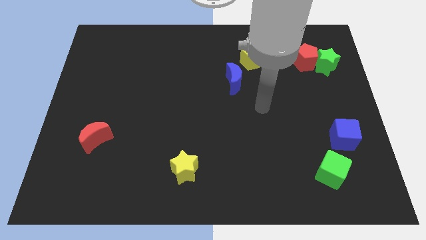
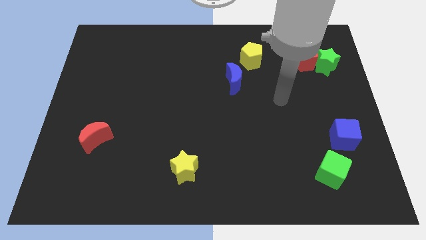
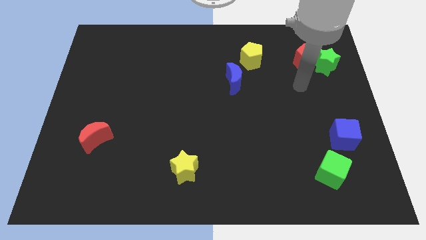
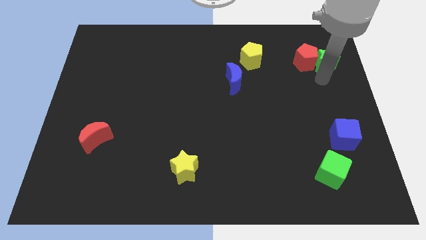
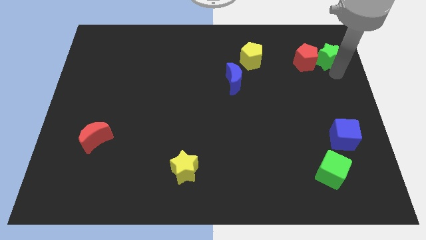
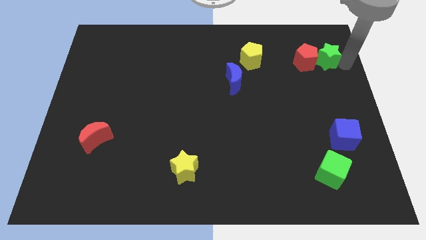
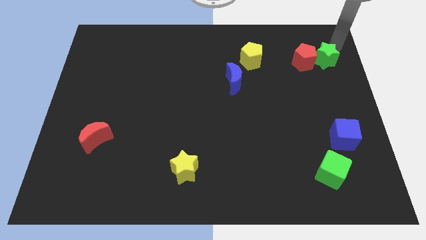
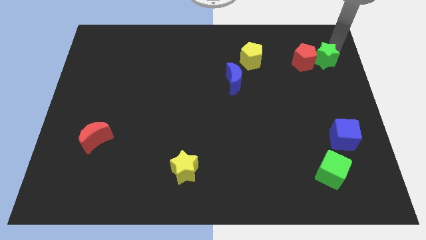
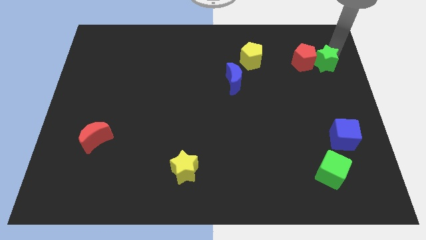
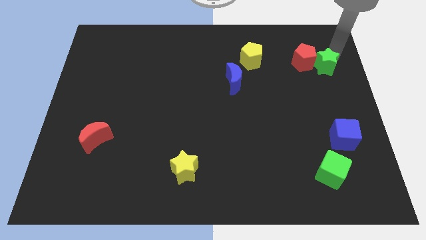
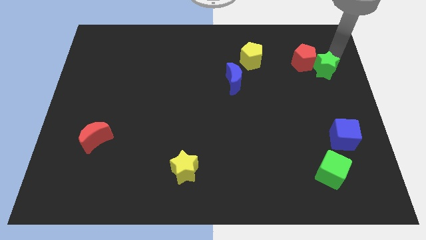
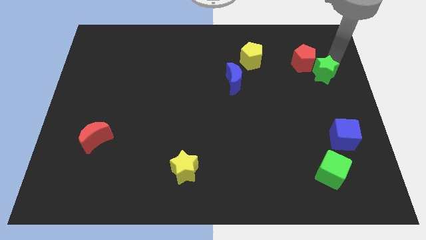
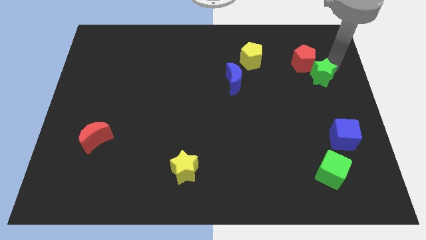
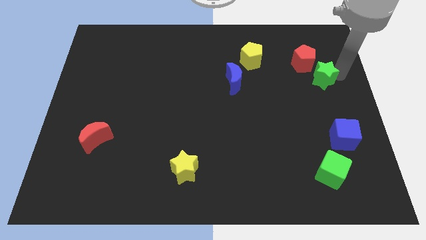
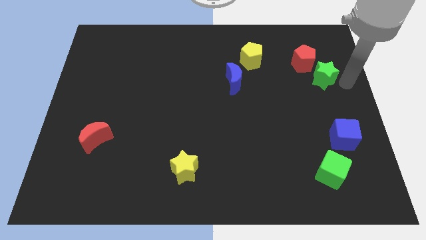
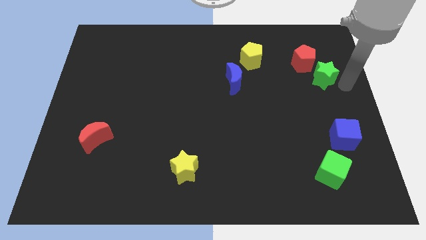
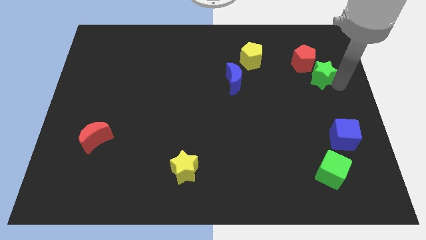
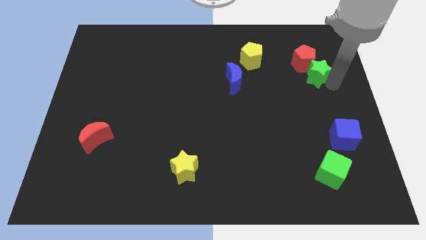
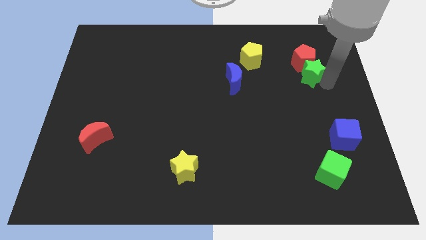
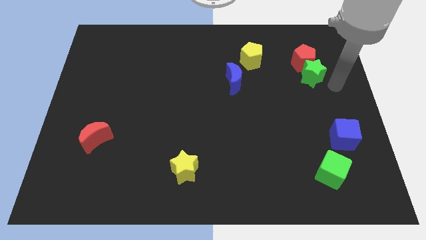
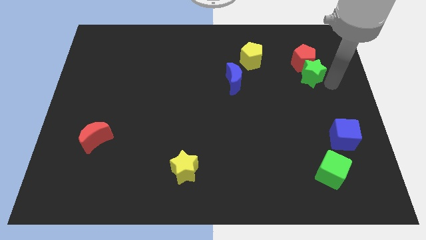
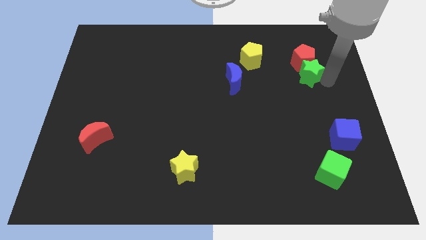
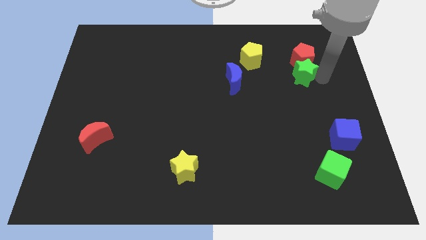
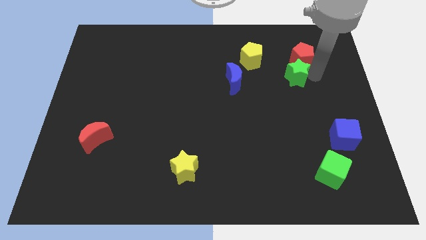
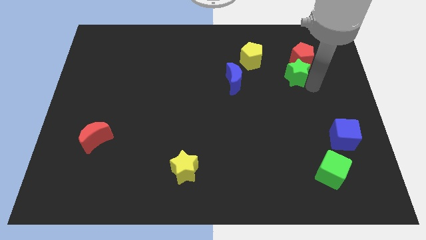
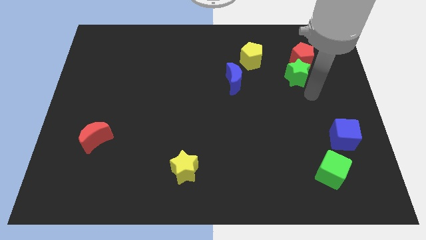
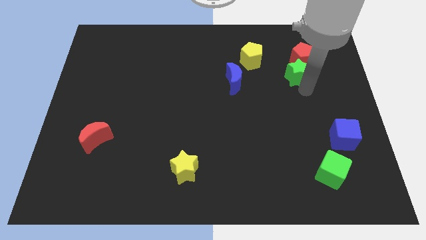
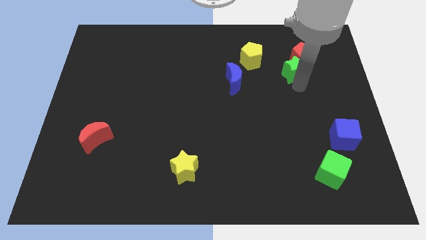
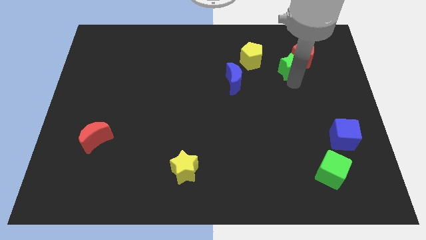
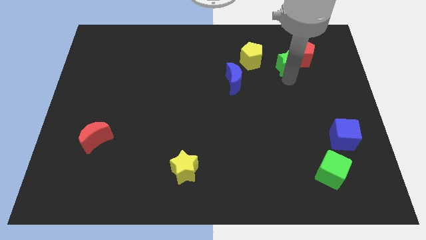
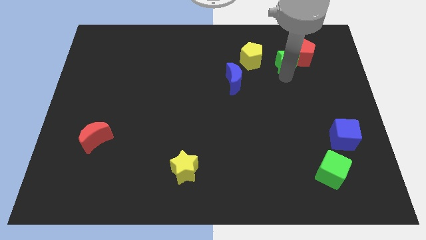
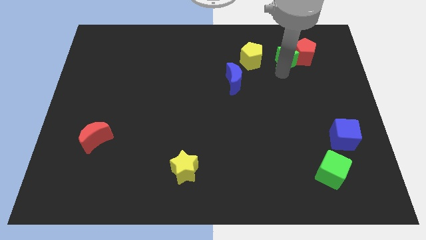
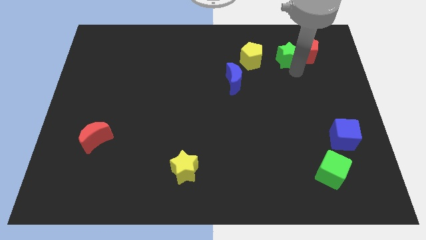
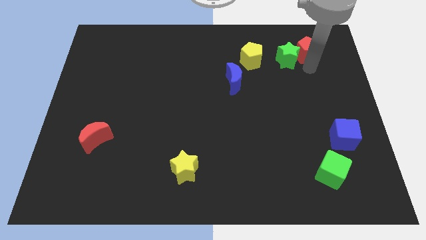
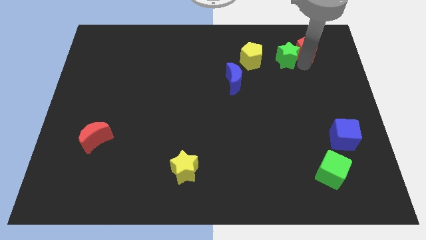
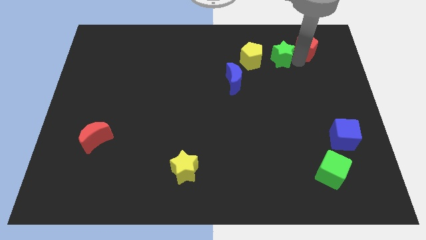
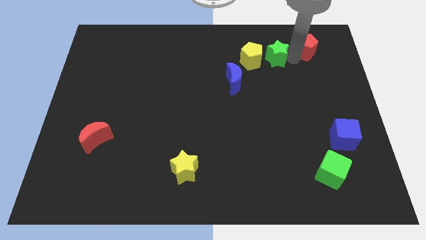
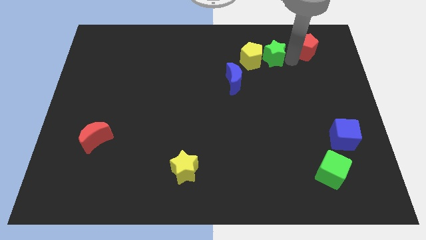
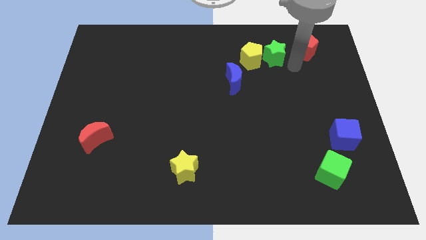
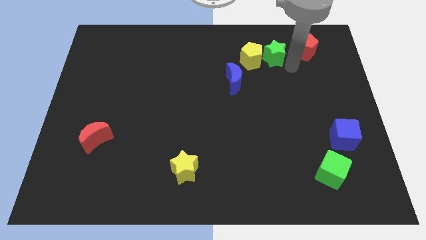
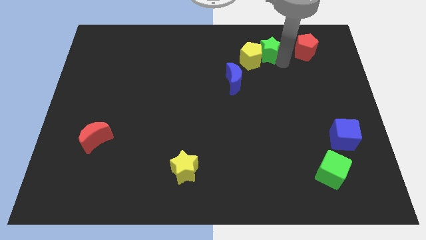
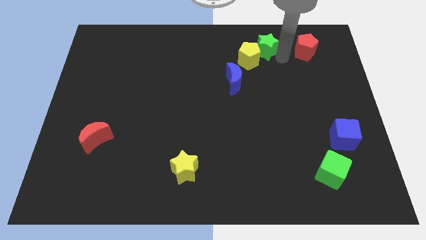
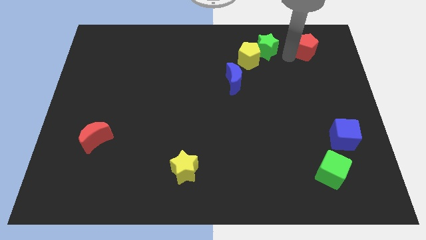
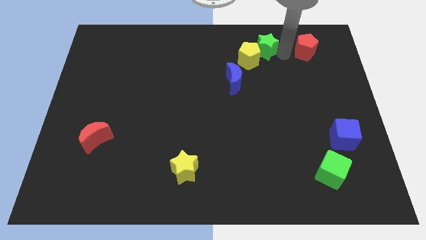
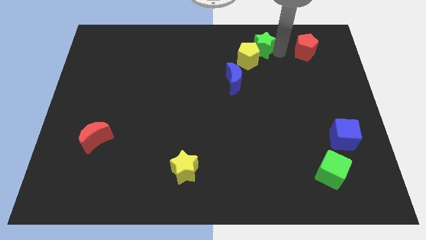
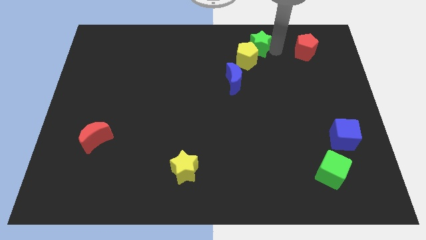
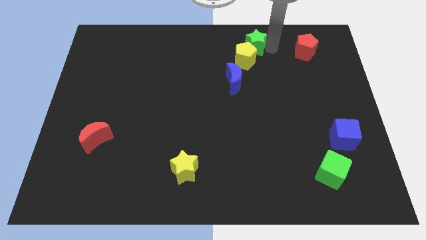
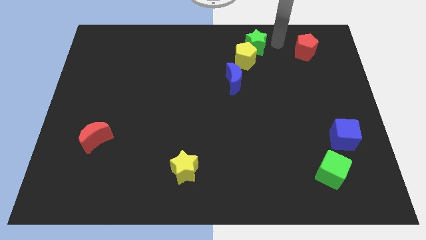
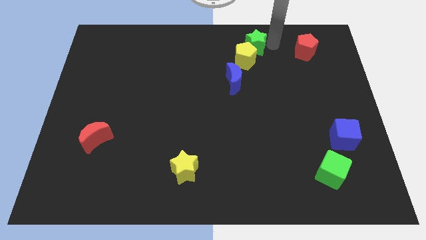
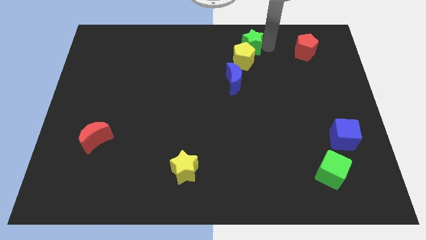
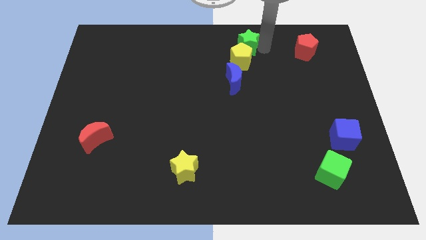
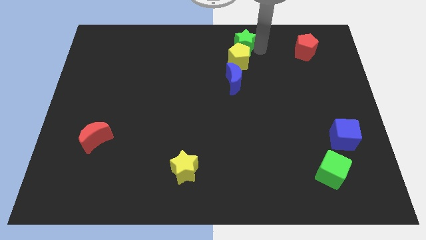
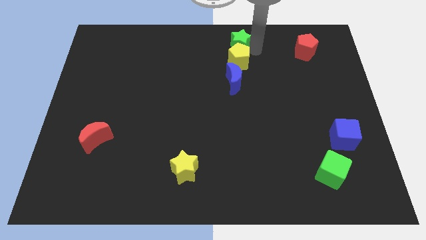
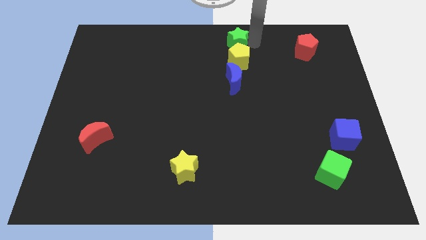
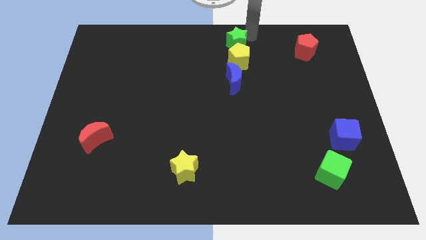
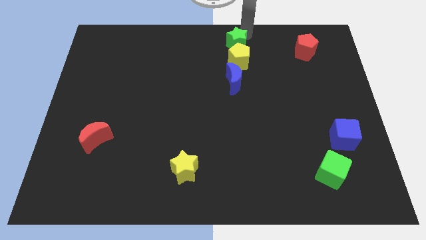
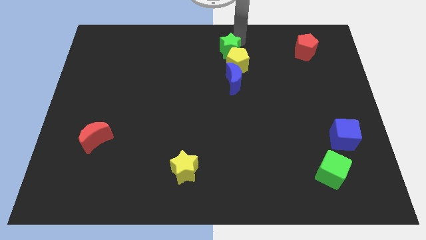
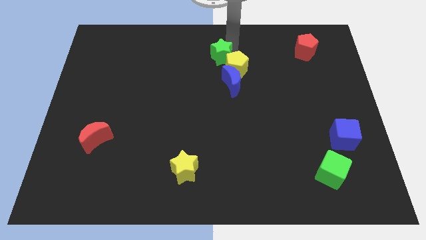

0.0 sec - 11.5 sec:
push the green star diagonally up and to the left of the blue moon

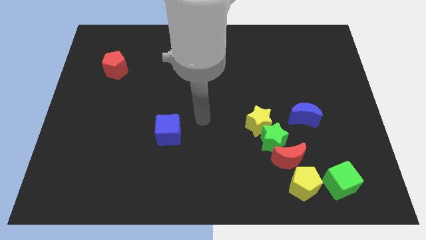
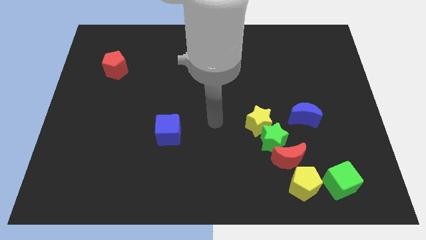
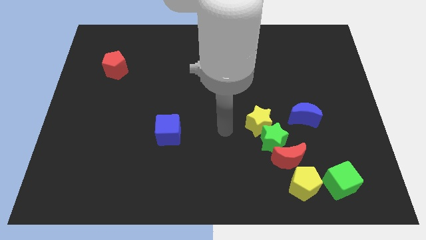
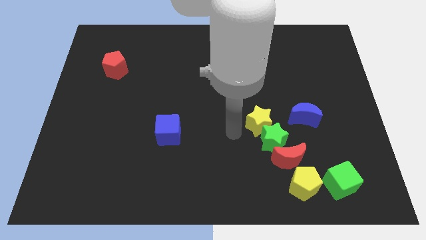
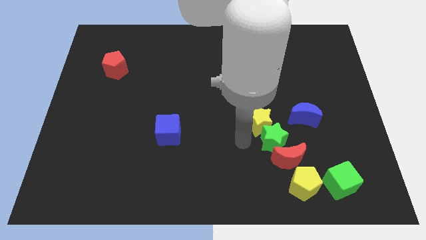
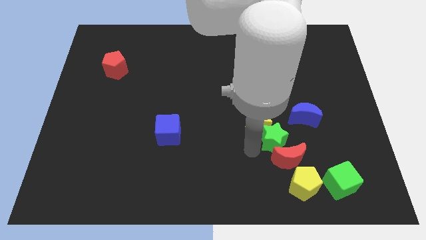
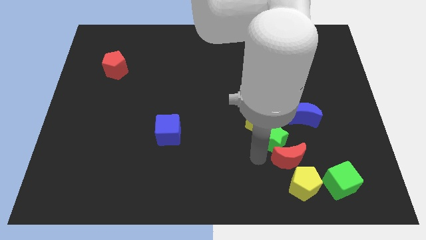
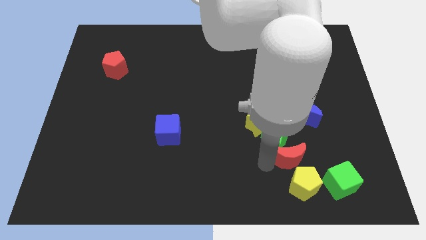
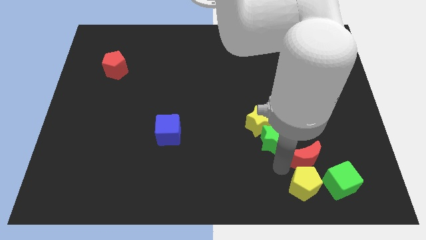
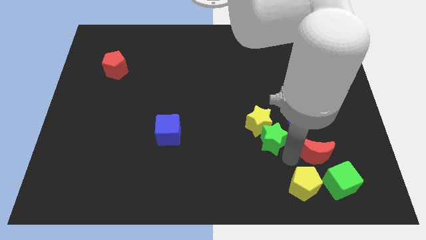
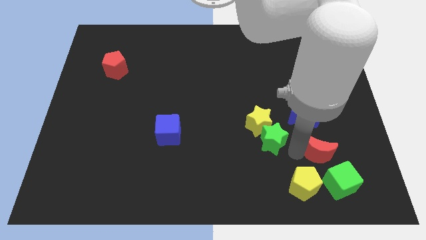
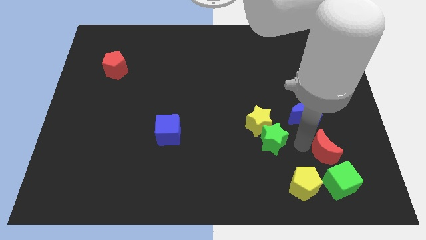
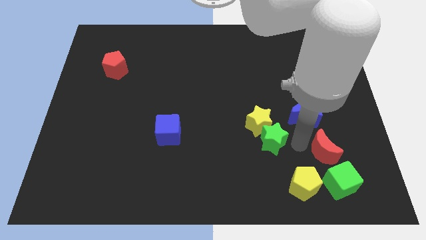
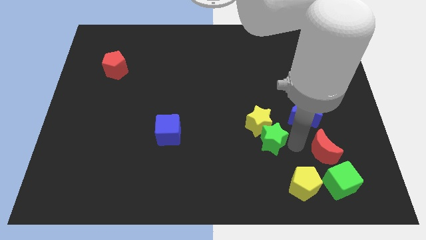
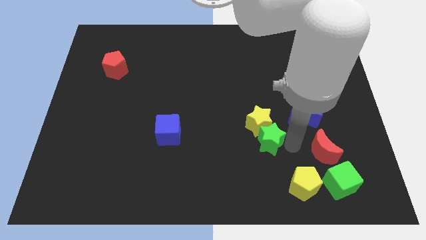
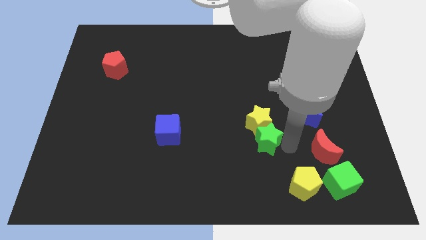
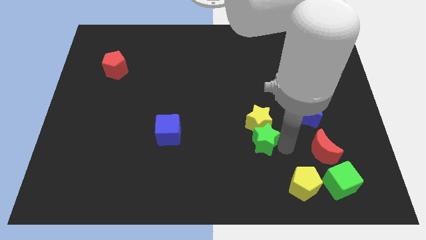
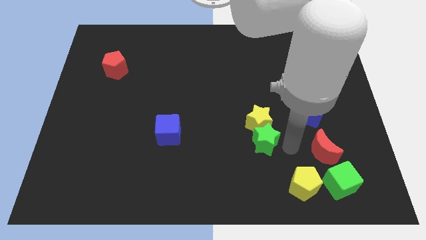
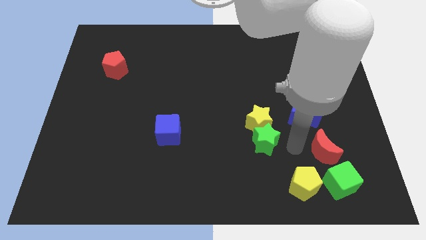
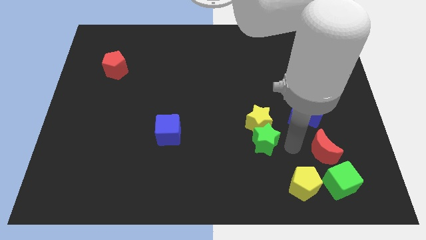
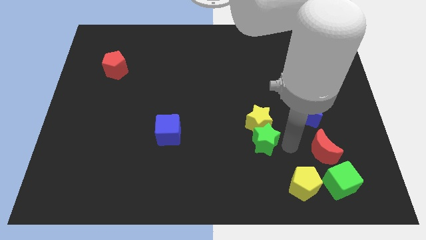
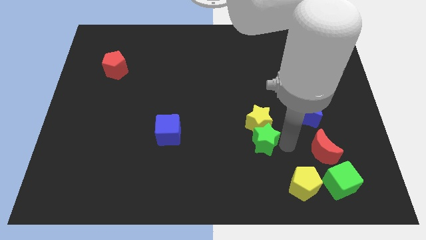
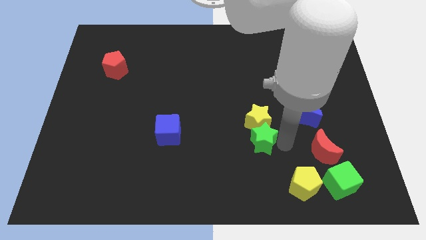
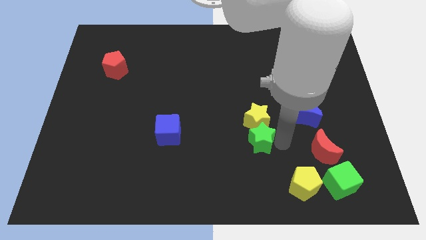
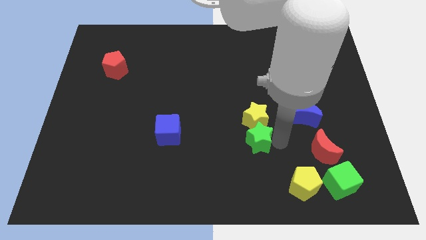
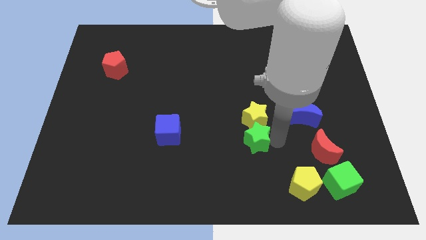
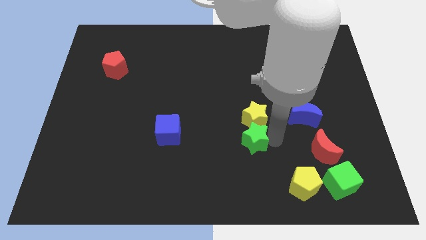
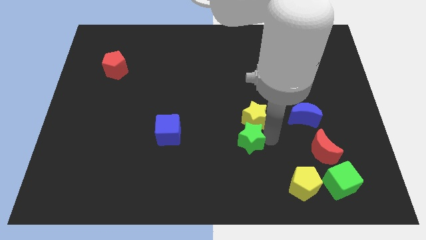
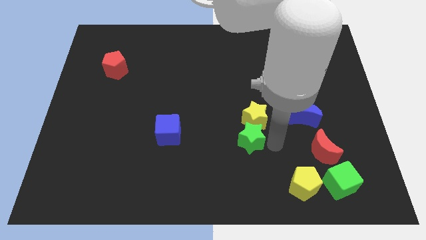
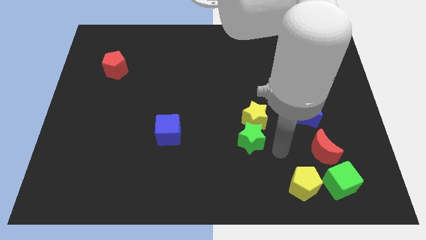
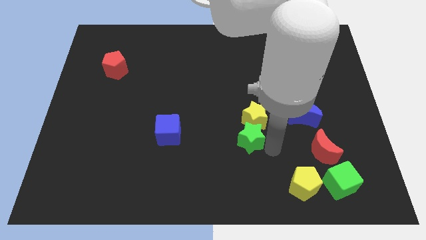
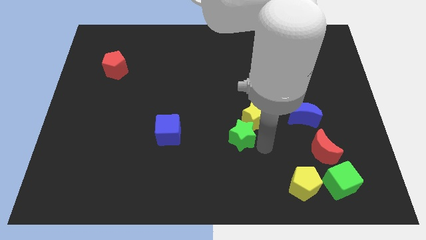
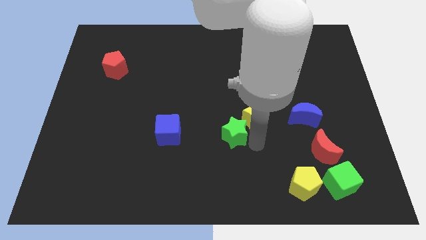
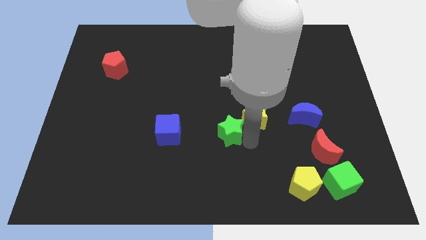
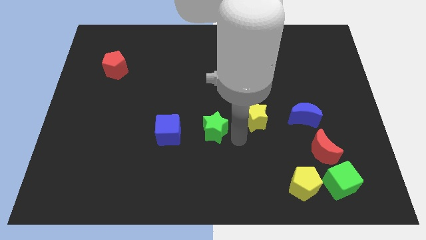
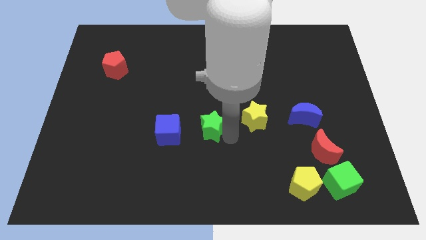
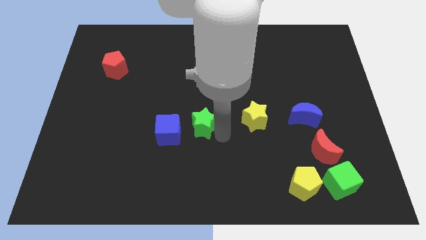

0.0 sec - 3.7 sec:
slide the green star to the top right of the blue cube
